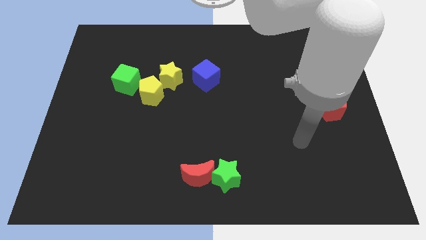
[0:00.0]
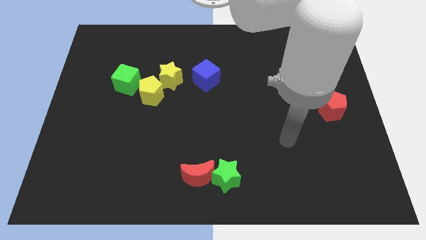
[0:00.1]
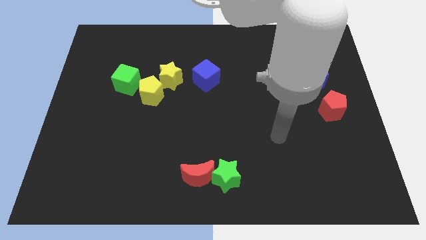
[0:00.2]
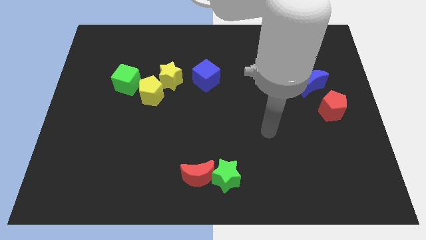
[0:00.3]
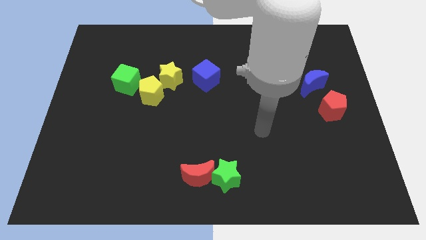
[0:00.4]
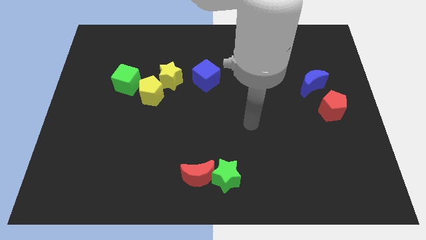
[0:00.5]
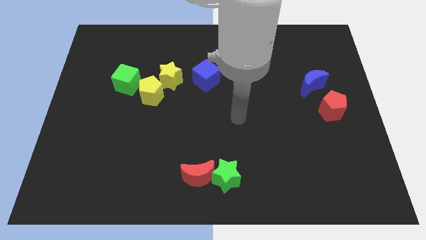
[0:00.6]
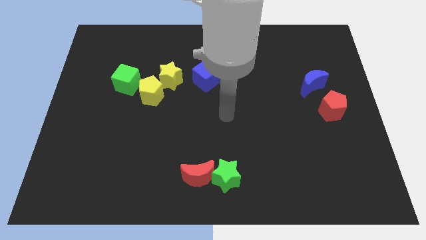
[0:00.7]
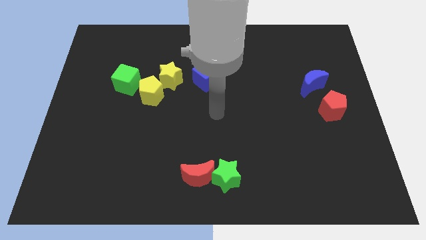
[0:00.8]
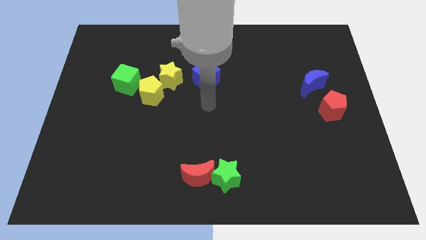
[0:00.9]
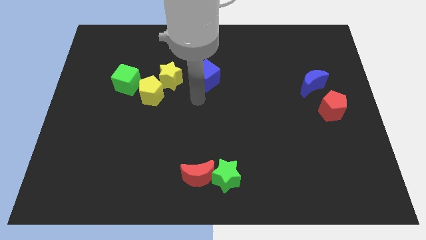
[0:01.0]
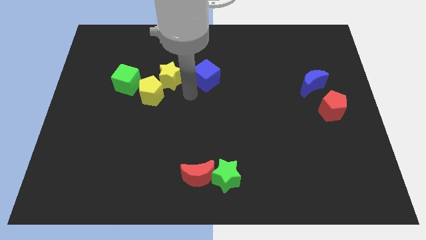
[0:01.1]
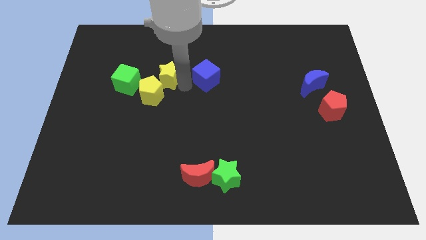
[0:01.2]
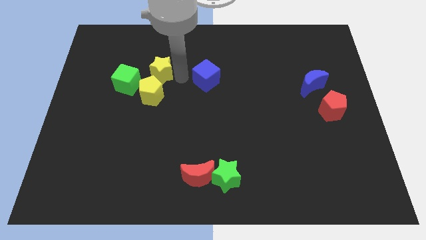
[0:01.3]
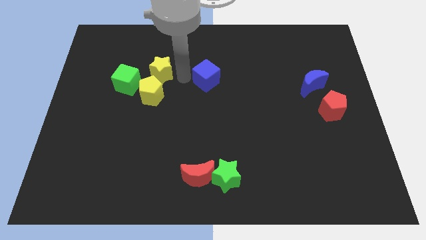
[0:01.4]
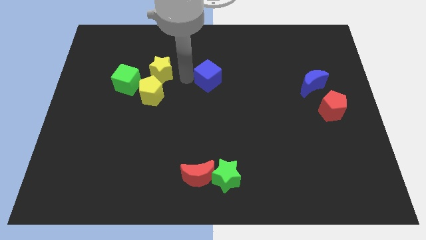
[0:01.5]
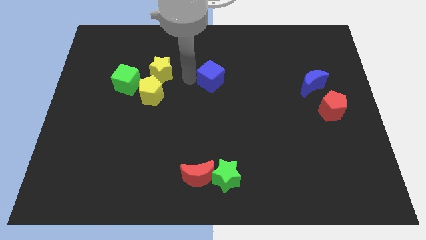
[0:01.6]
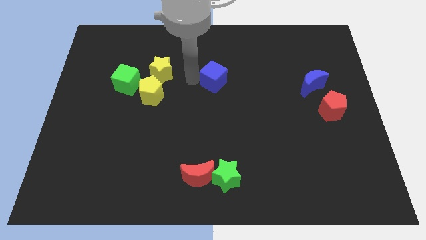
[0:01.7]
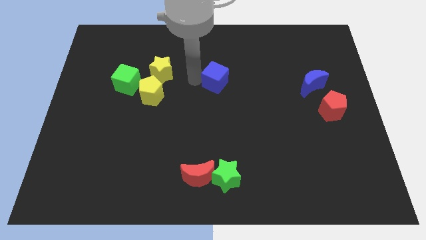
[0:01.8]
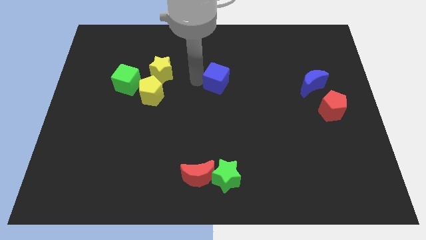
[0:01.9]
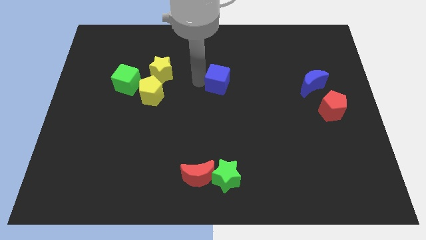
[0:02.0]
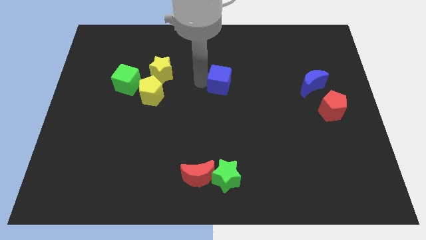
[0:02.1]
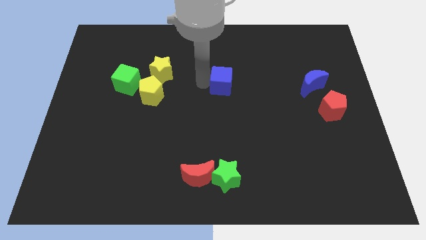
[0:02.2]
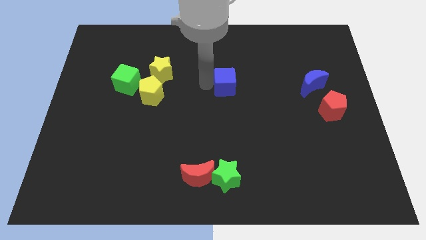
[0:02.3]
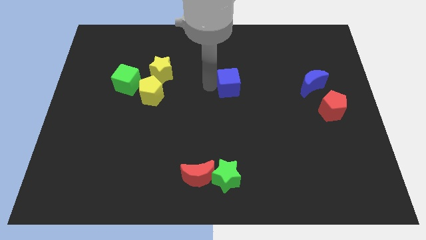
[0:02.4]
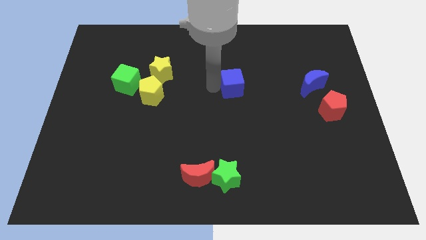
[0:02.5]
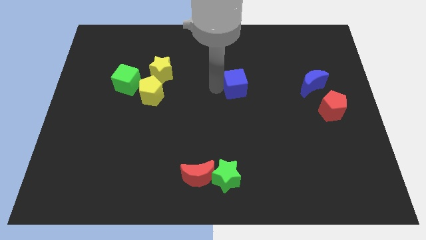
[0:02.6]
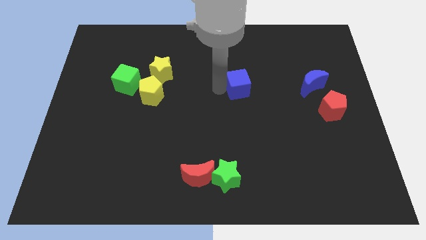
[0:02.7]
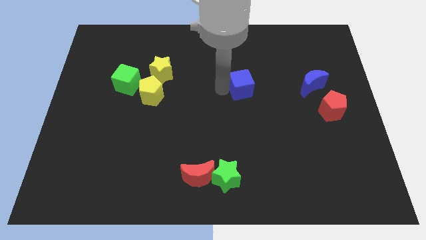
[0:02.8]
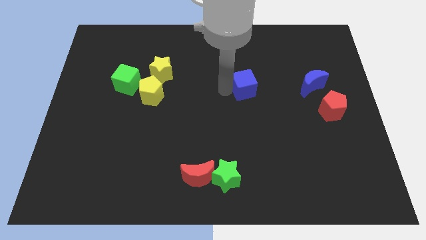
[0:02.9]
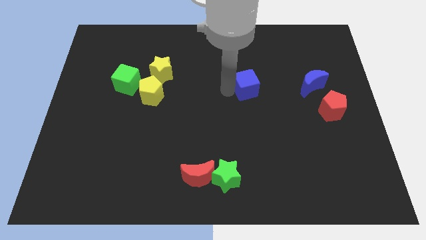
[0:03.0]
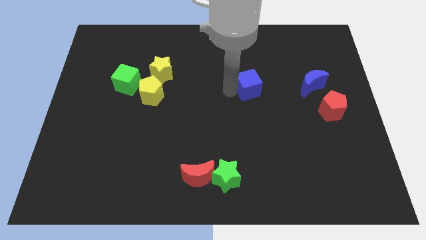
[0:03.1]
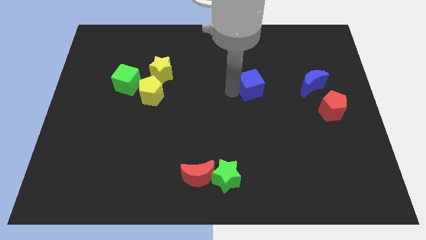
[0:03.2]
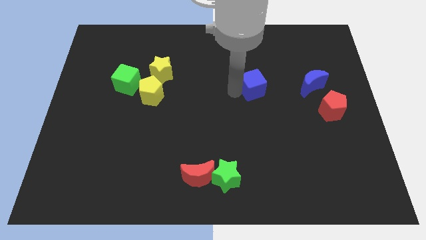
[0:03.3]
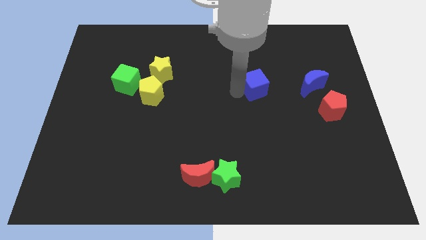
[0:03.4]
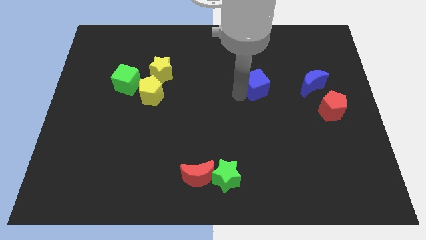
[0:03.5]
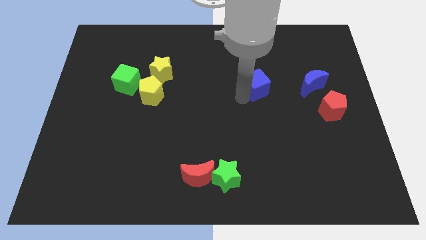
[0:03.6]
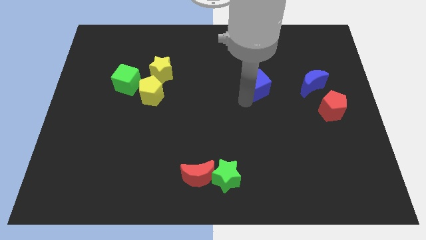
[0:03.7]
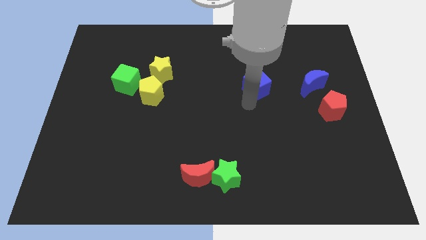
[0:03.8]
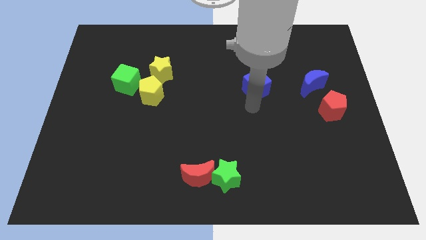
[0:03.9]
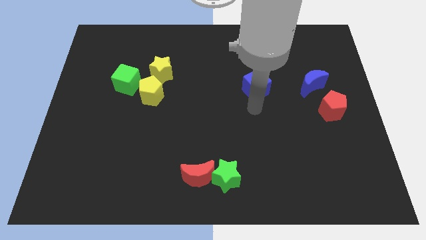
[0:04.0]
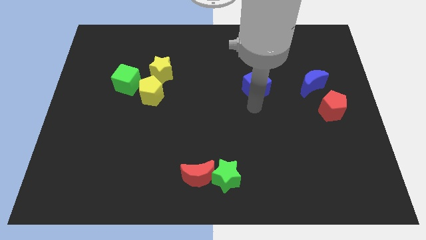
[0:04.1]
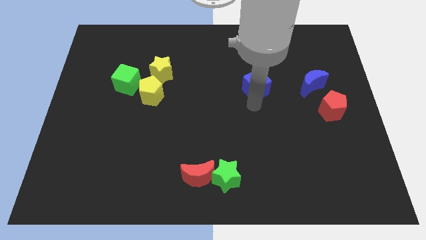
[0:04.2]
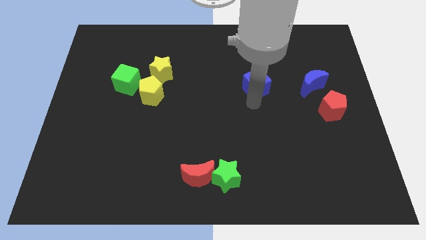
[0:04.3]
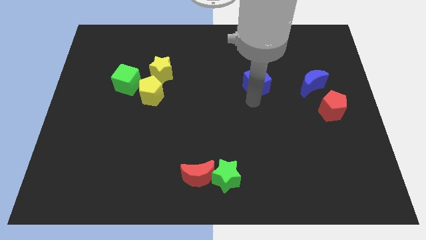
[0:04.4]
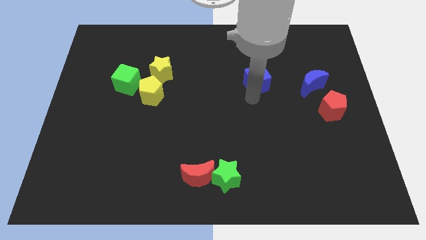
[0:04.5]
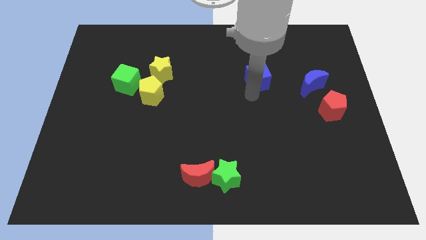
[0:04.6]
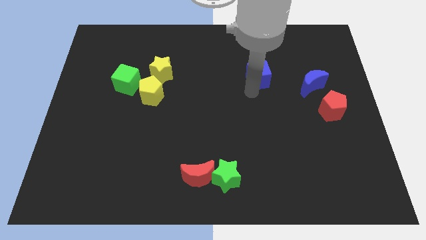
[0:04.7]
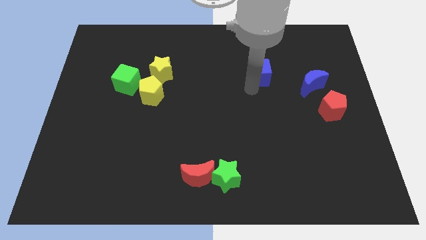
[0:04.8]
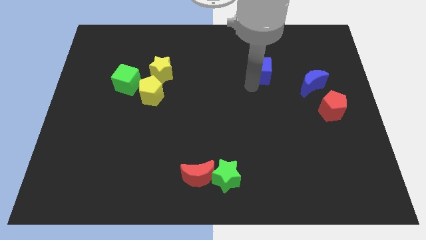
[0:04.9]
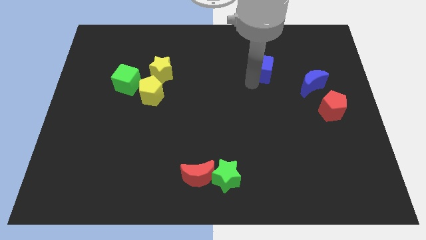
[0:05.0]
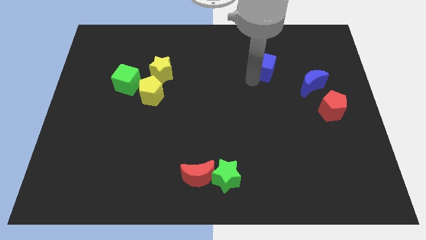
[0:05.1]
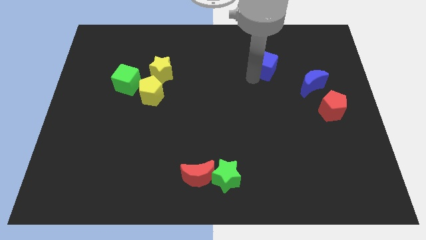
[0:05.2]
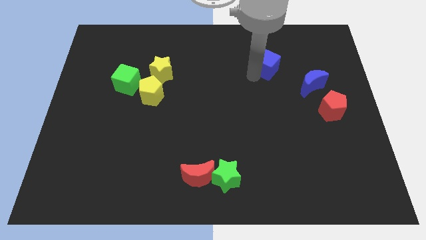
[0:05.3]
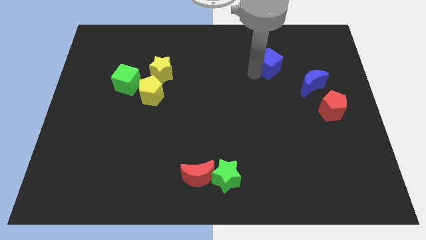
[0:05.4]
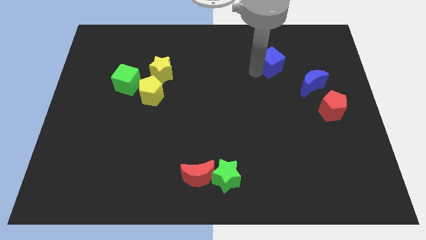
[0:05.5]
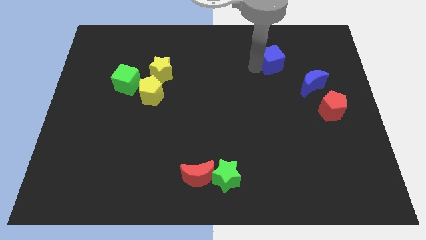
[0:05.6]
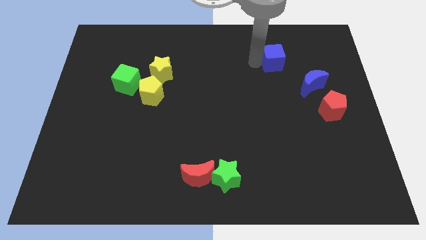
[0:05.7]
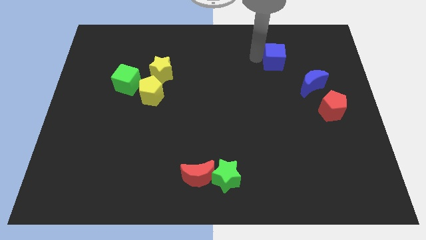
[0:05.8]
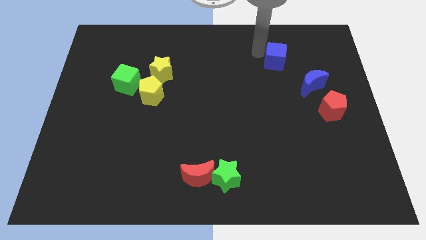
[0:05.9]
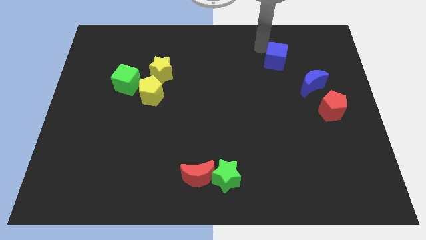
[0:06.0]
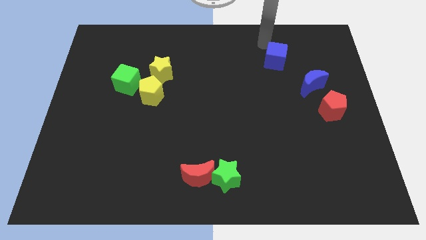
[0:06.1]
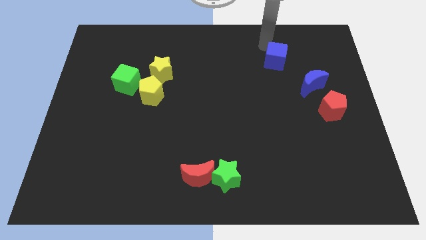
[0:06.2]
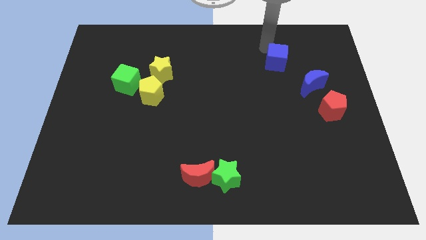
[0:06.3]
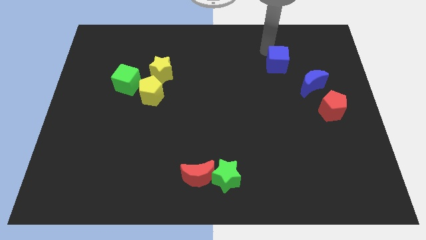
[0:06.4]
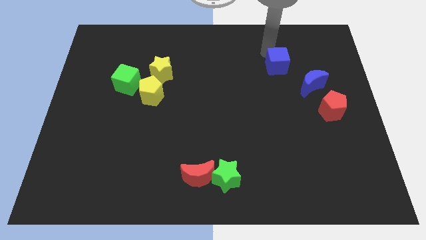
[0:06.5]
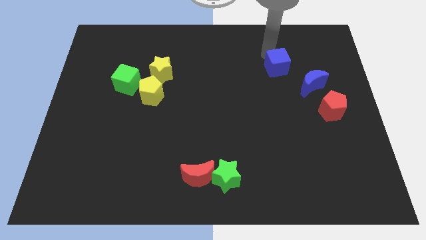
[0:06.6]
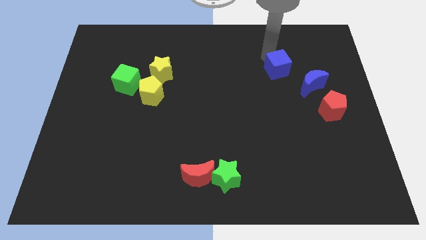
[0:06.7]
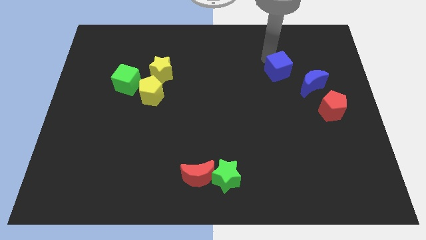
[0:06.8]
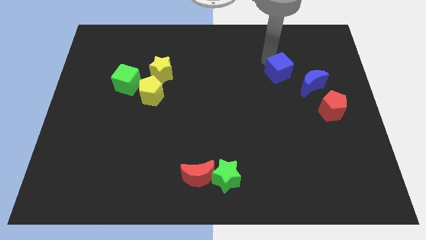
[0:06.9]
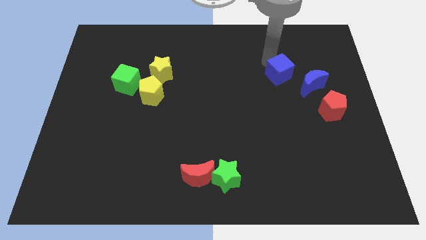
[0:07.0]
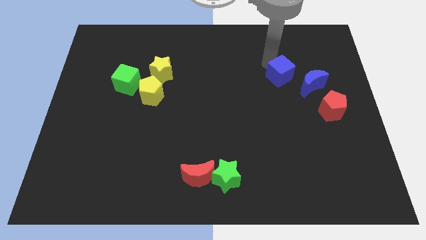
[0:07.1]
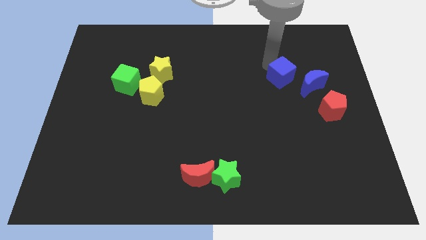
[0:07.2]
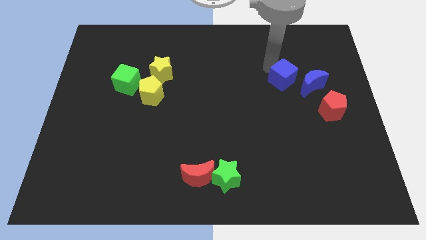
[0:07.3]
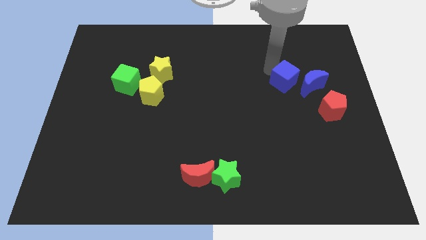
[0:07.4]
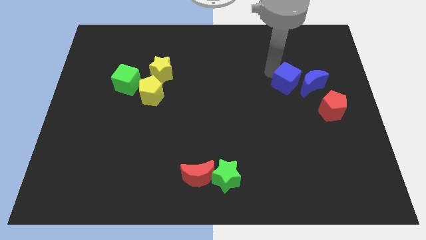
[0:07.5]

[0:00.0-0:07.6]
slide the blue cube to the blue moon
